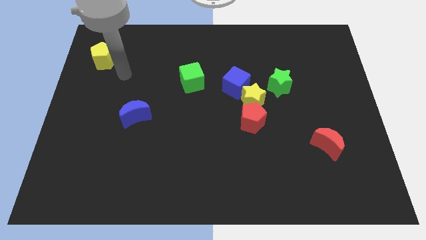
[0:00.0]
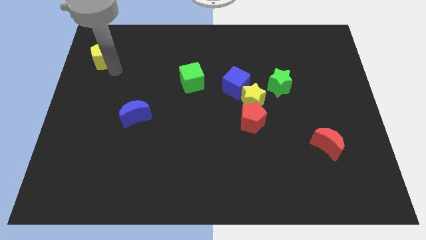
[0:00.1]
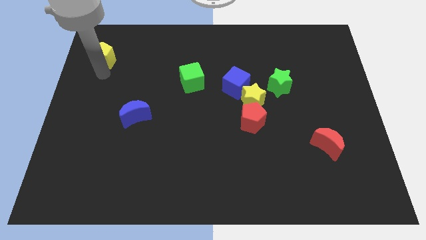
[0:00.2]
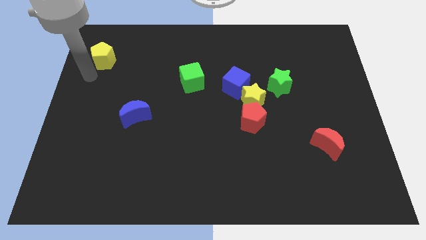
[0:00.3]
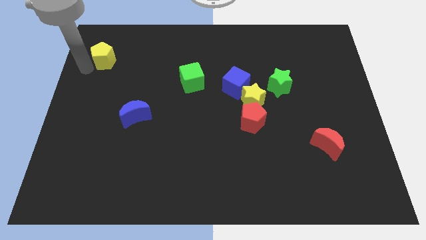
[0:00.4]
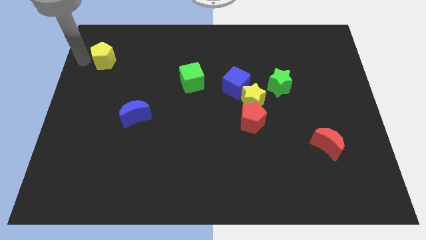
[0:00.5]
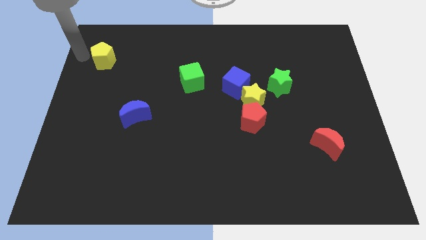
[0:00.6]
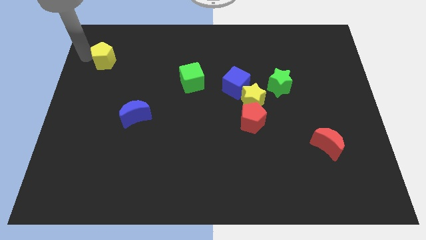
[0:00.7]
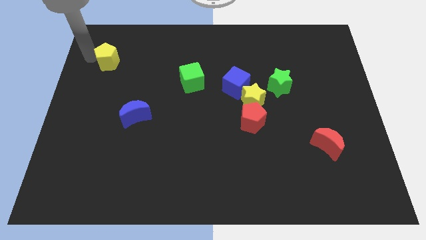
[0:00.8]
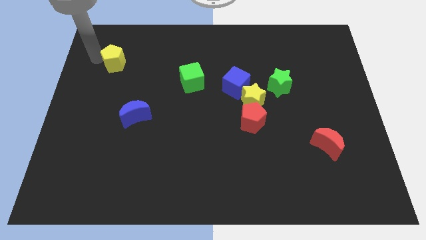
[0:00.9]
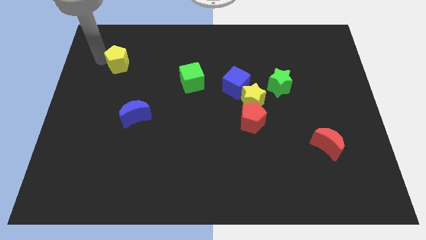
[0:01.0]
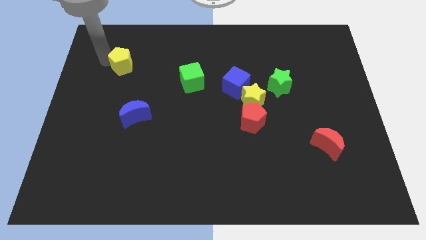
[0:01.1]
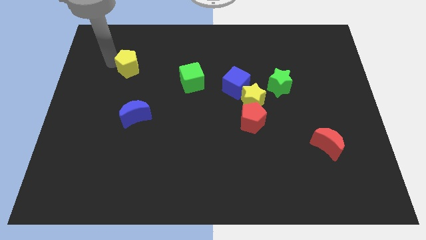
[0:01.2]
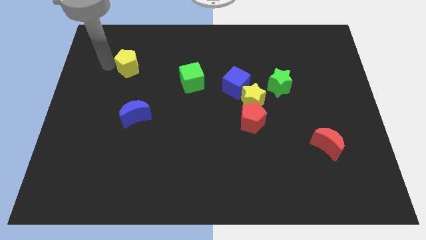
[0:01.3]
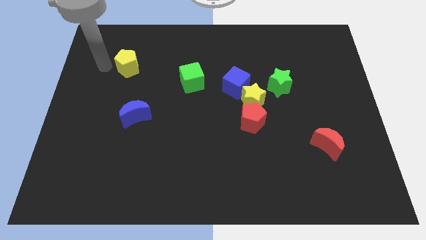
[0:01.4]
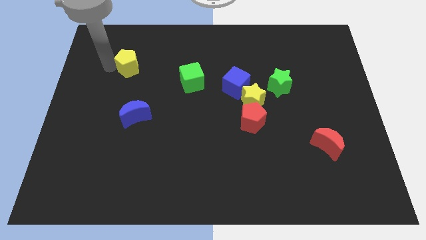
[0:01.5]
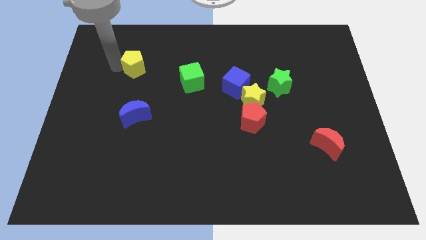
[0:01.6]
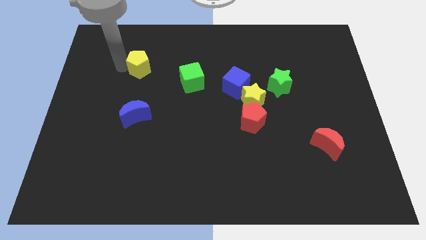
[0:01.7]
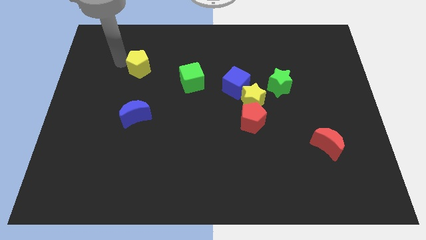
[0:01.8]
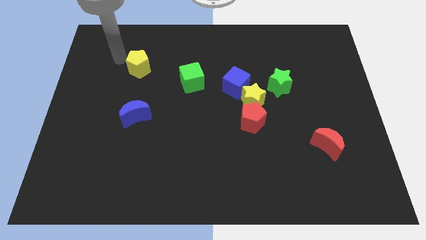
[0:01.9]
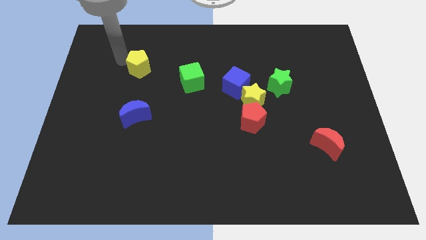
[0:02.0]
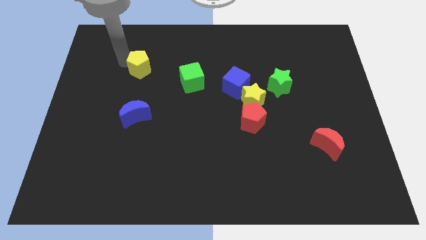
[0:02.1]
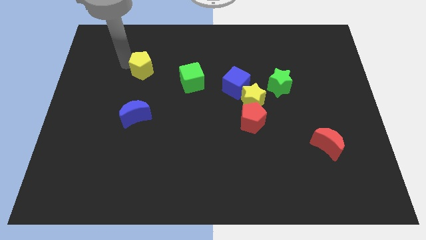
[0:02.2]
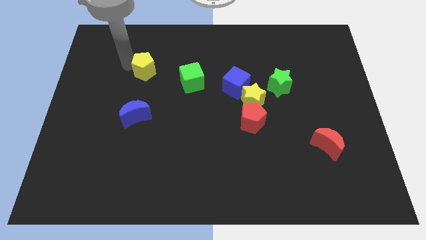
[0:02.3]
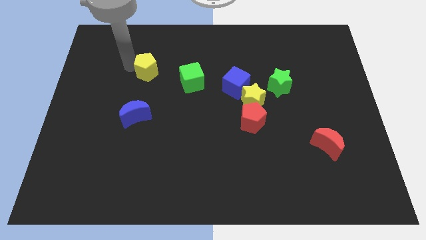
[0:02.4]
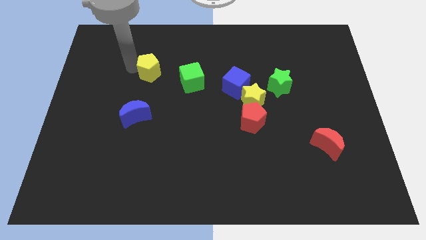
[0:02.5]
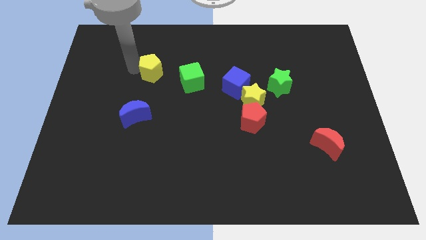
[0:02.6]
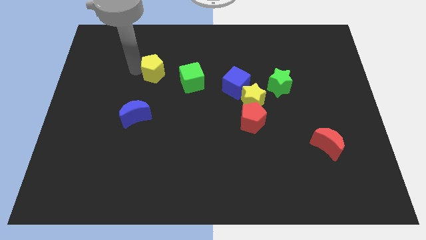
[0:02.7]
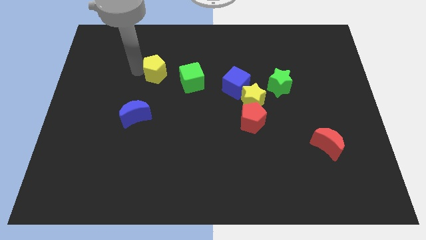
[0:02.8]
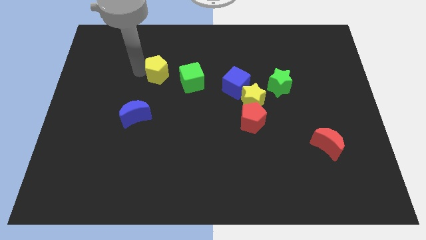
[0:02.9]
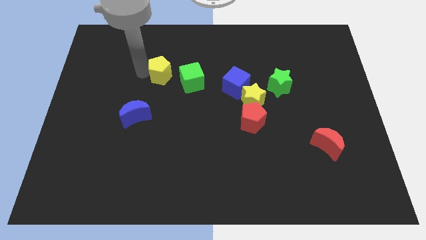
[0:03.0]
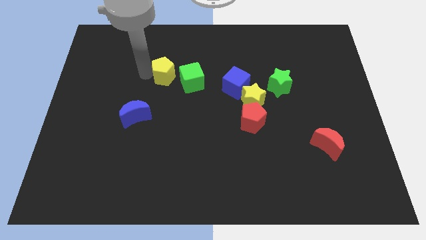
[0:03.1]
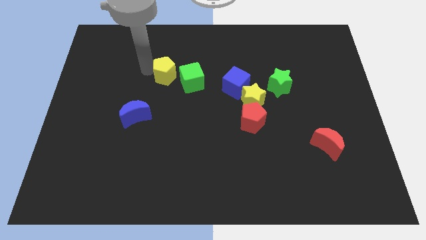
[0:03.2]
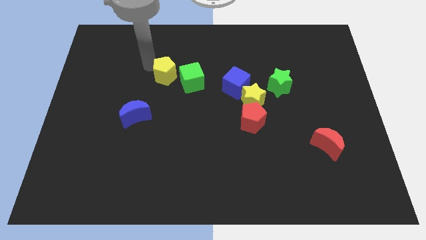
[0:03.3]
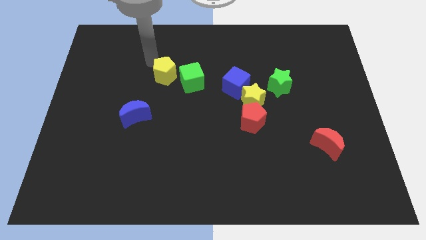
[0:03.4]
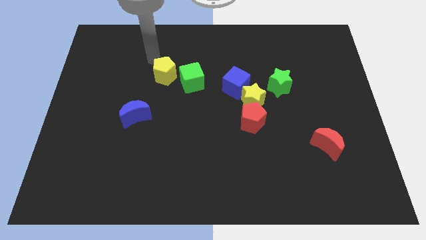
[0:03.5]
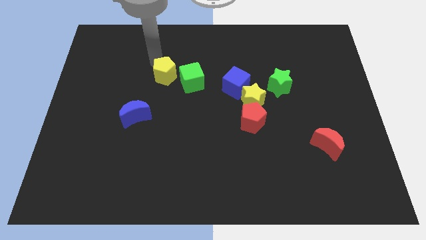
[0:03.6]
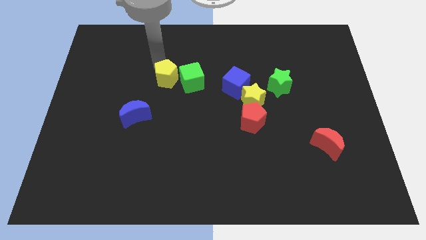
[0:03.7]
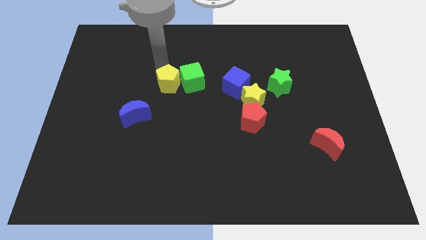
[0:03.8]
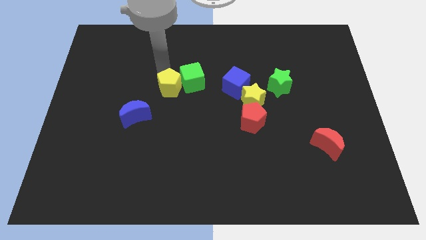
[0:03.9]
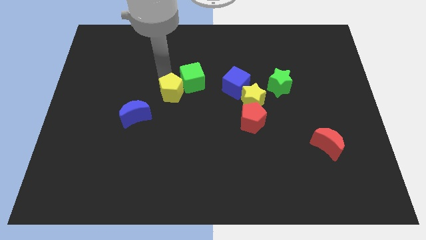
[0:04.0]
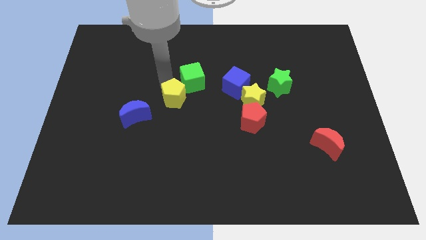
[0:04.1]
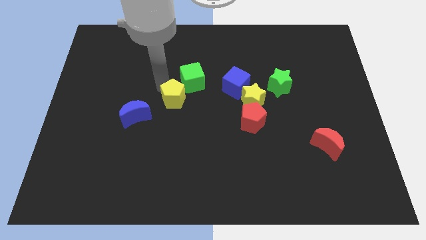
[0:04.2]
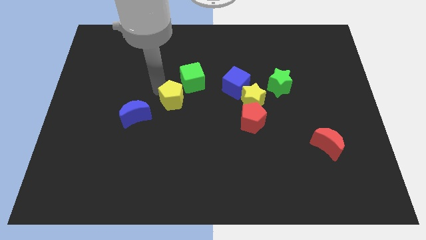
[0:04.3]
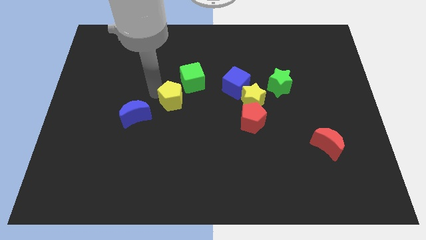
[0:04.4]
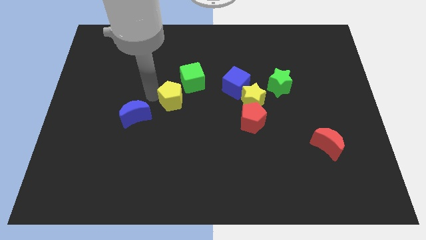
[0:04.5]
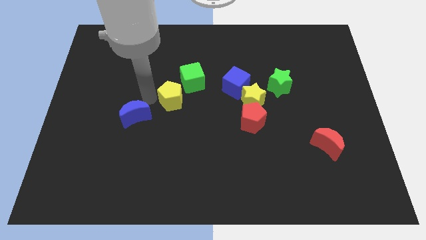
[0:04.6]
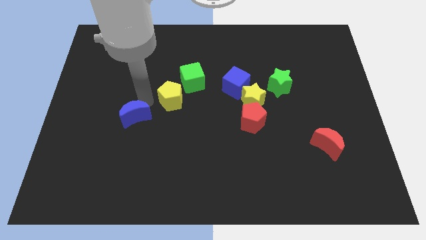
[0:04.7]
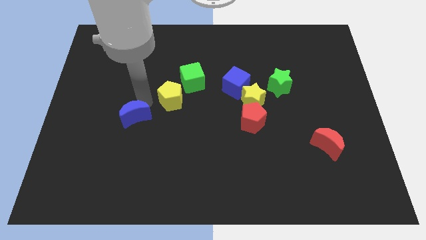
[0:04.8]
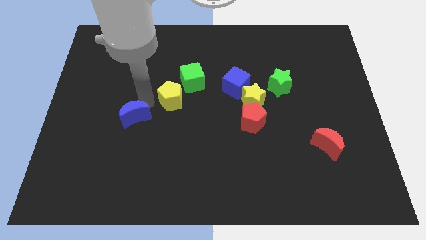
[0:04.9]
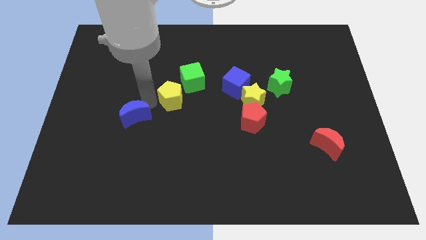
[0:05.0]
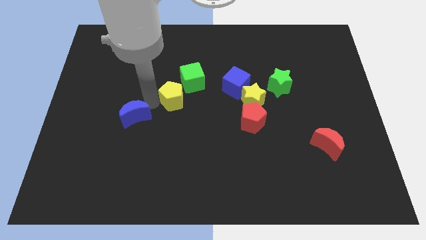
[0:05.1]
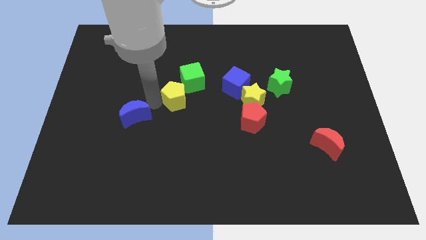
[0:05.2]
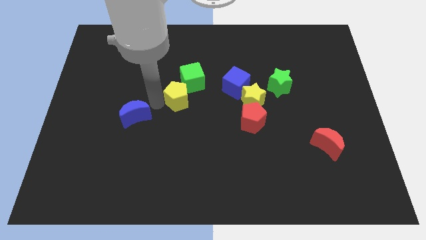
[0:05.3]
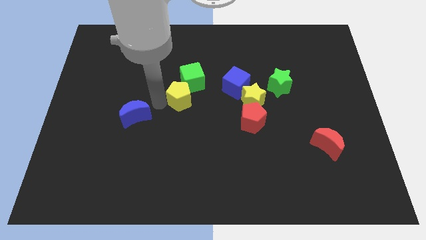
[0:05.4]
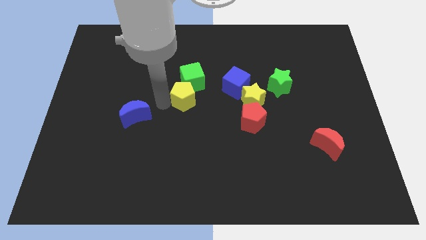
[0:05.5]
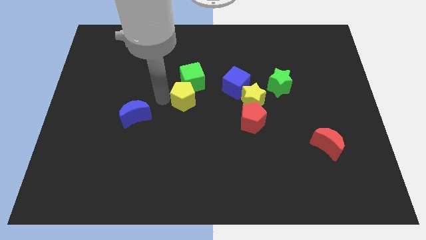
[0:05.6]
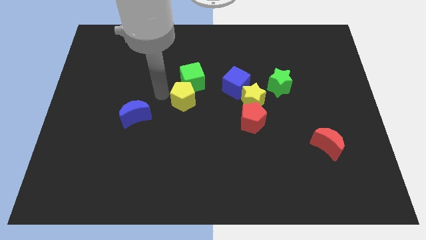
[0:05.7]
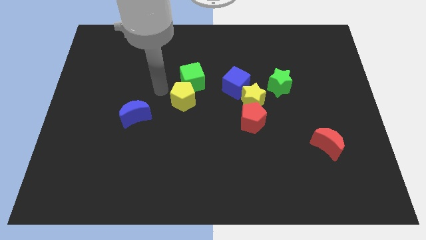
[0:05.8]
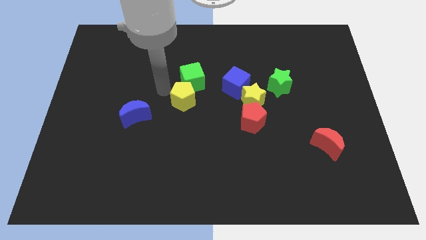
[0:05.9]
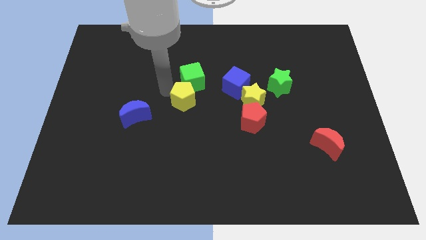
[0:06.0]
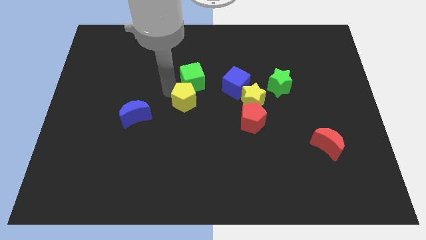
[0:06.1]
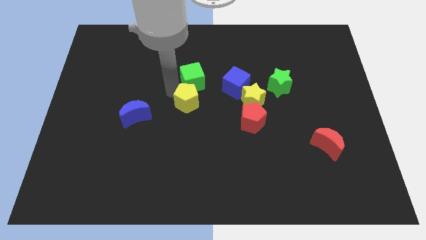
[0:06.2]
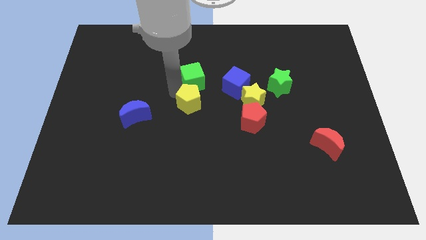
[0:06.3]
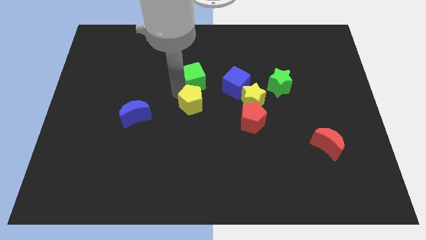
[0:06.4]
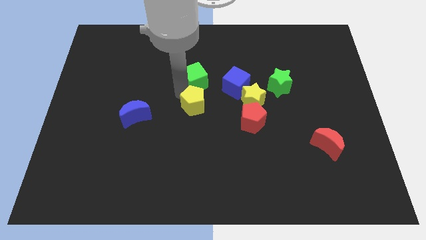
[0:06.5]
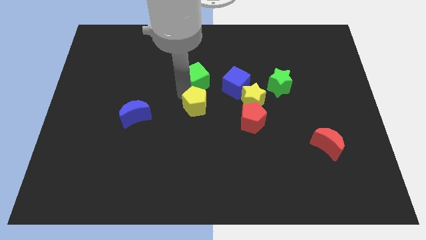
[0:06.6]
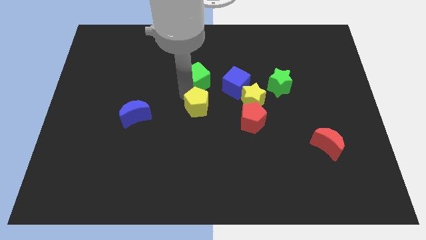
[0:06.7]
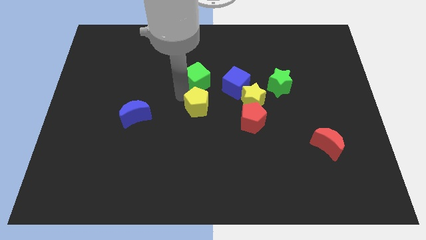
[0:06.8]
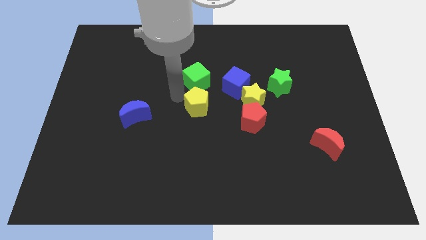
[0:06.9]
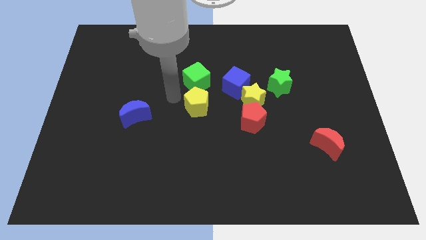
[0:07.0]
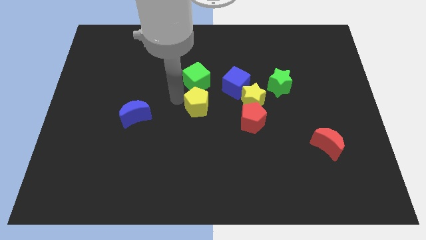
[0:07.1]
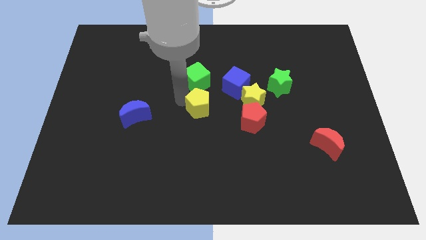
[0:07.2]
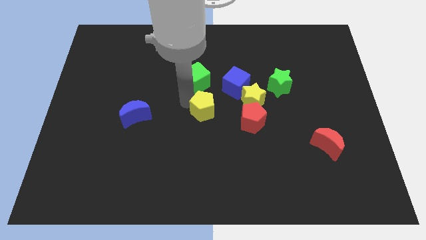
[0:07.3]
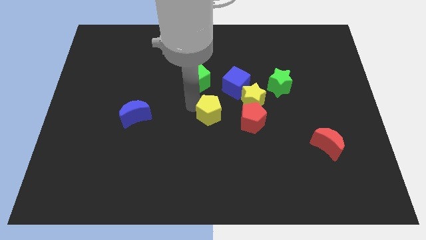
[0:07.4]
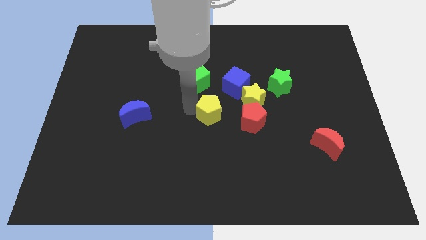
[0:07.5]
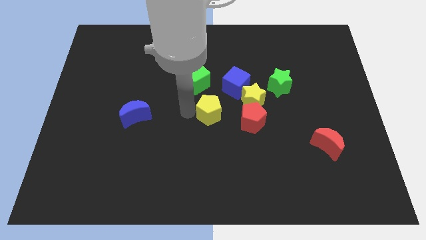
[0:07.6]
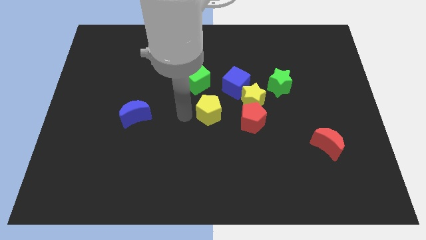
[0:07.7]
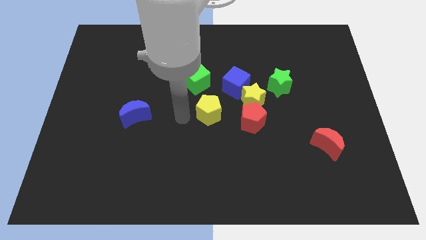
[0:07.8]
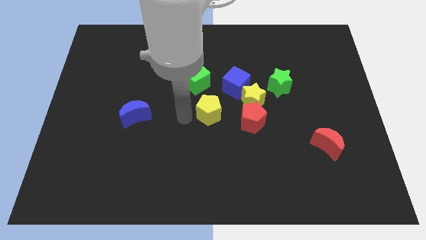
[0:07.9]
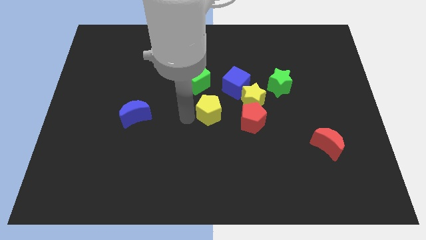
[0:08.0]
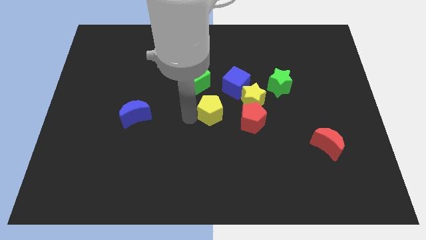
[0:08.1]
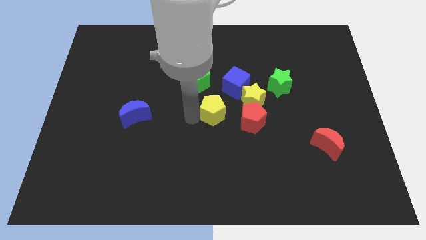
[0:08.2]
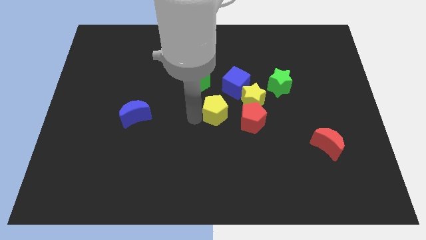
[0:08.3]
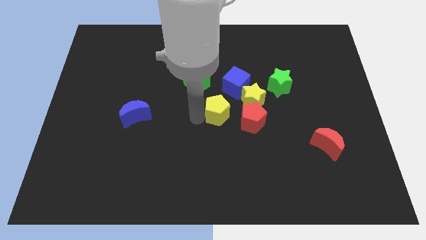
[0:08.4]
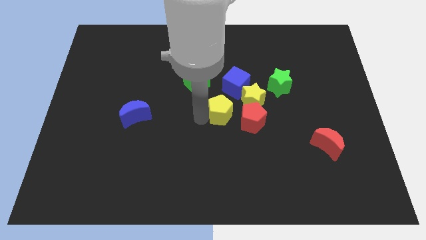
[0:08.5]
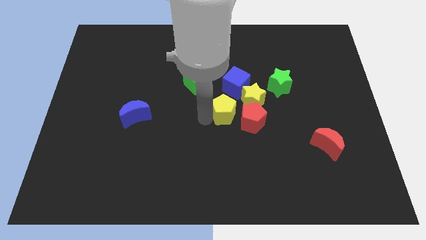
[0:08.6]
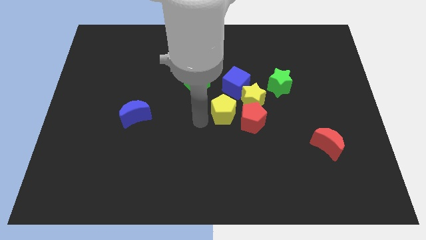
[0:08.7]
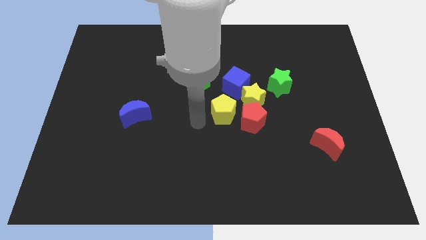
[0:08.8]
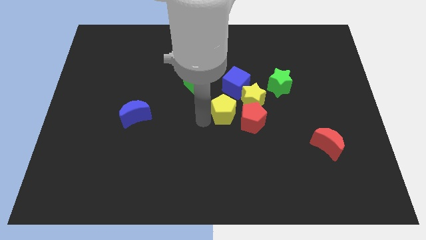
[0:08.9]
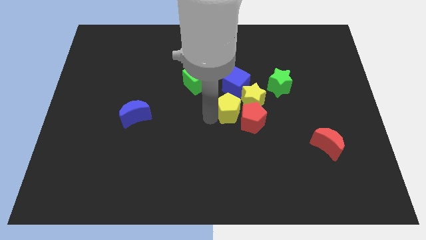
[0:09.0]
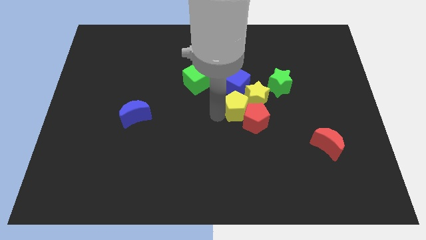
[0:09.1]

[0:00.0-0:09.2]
slide the yellow pentagon next to the yellow star
